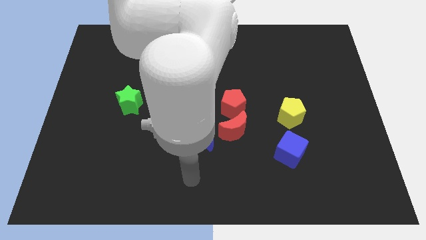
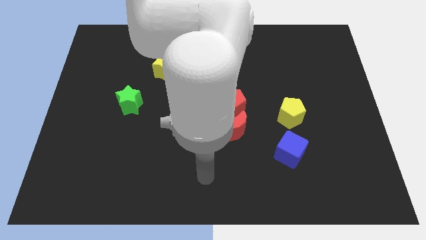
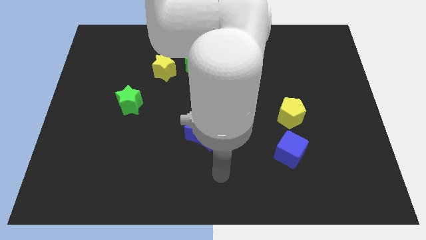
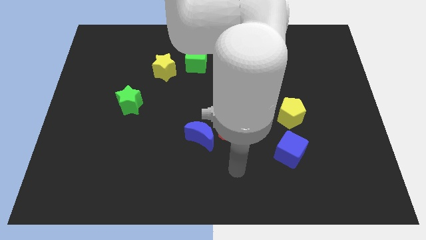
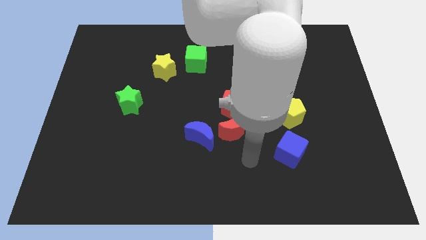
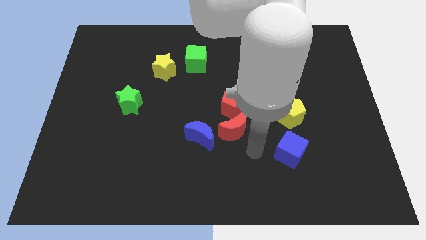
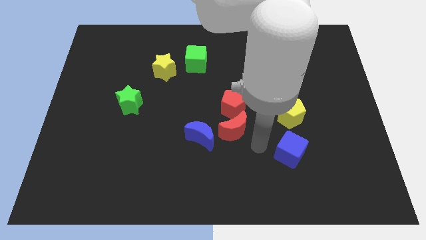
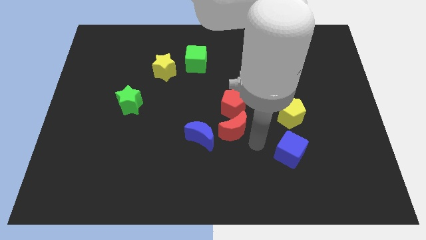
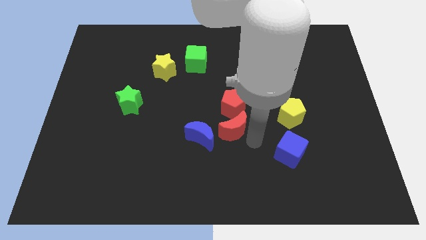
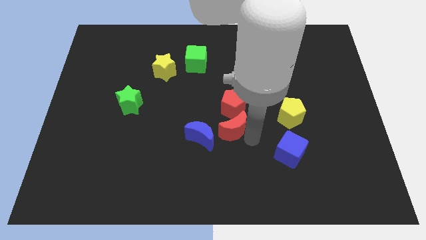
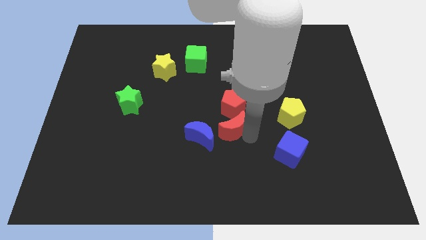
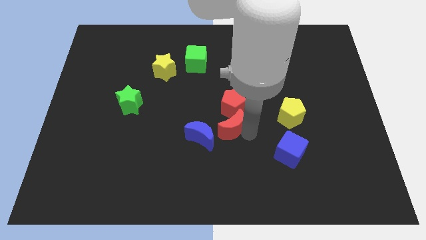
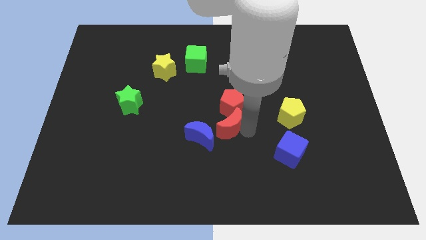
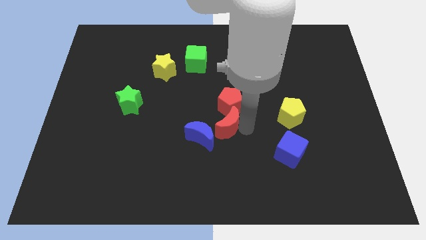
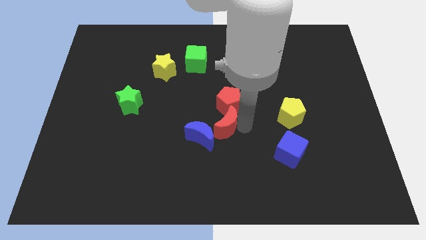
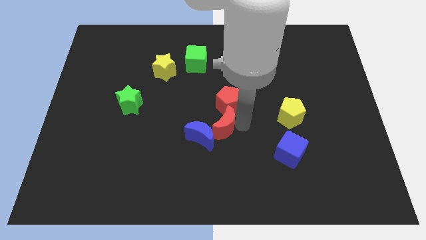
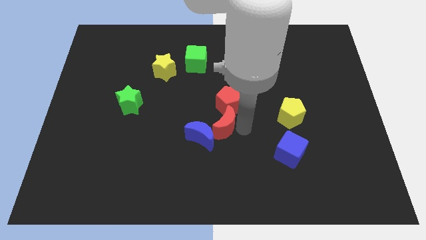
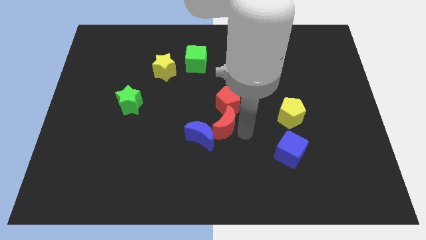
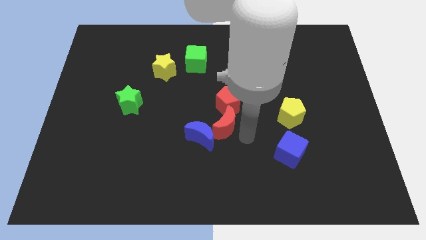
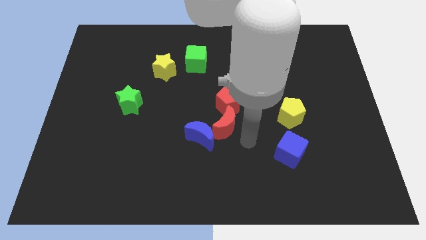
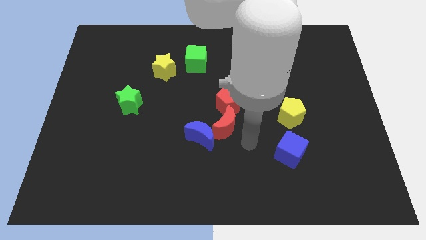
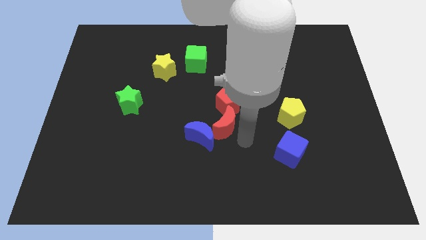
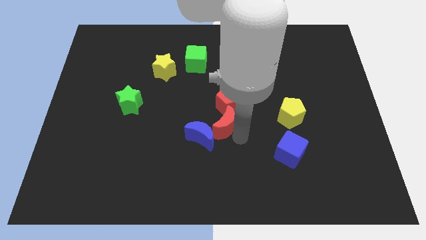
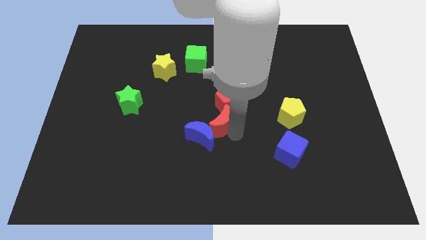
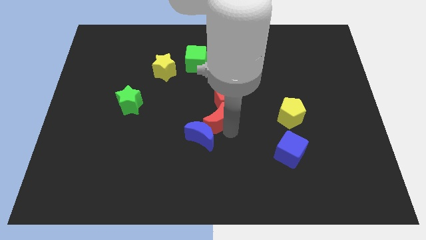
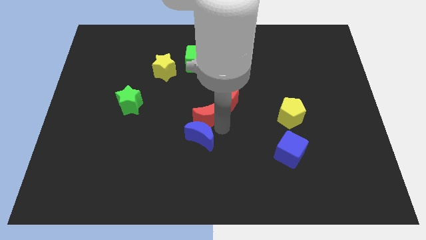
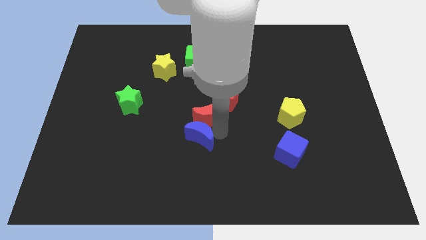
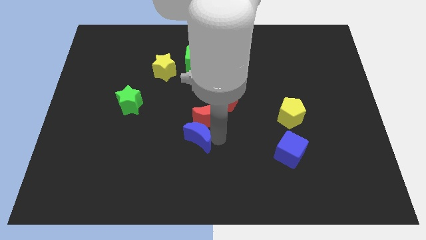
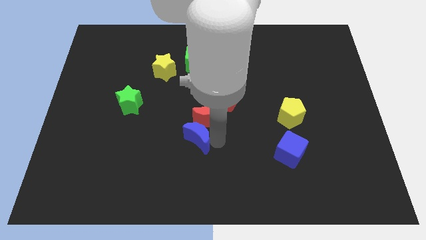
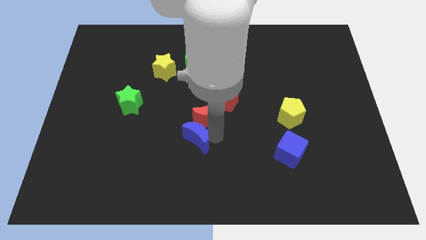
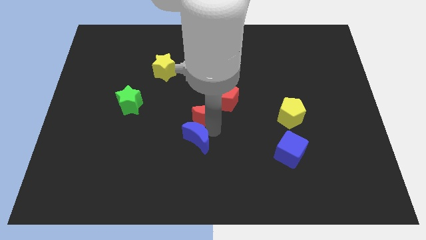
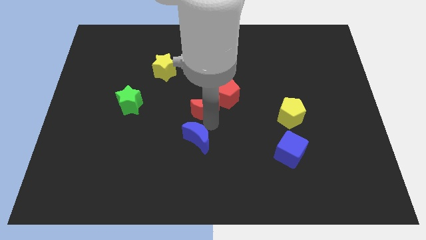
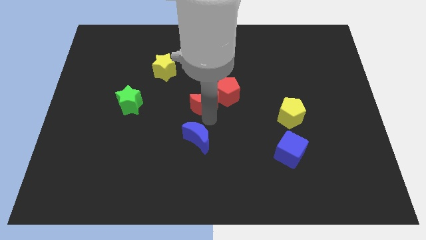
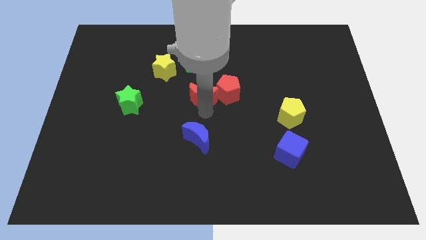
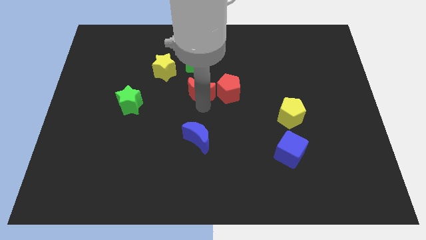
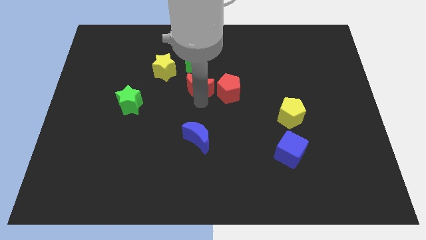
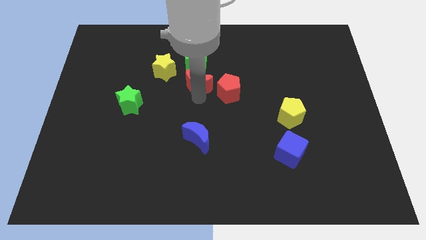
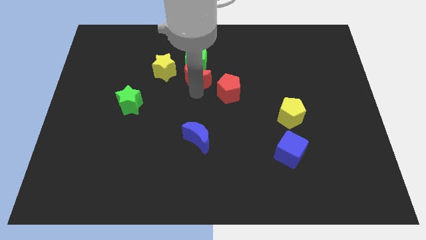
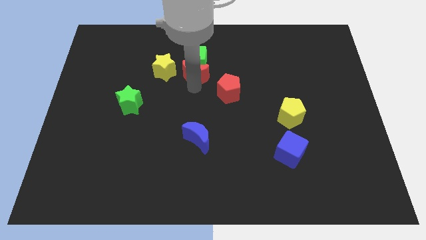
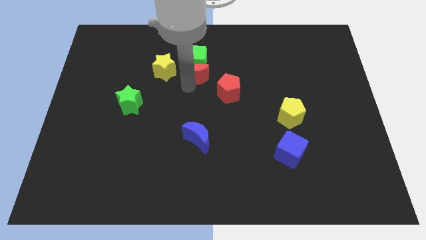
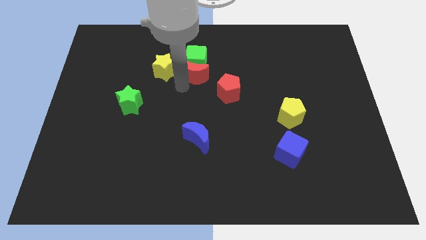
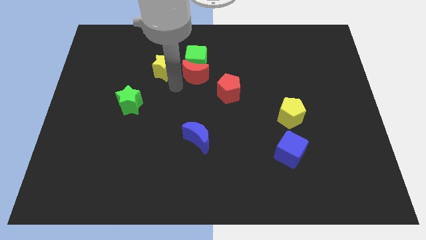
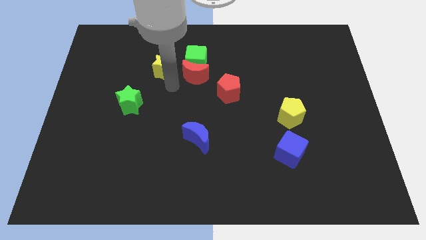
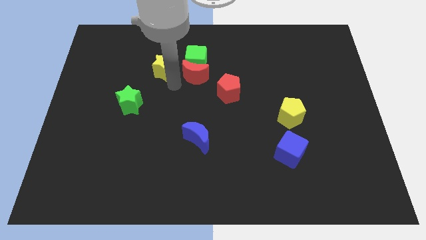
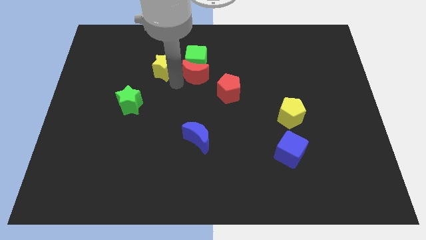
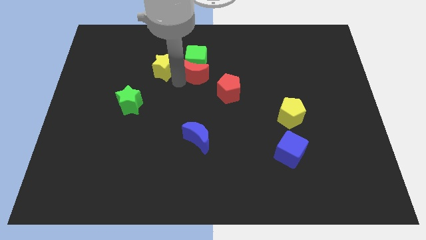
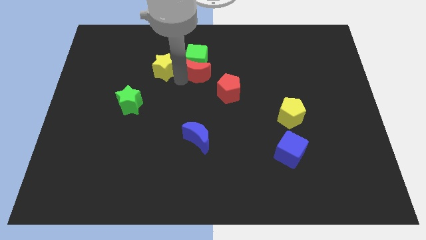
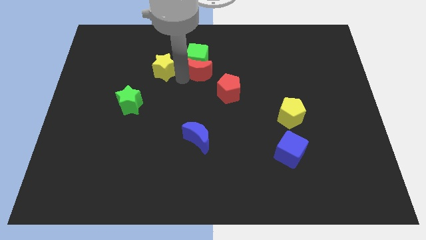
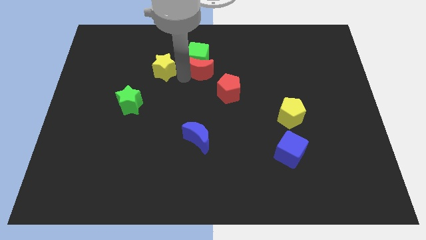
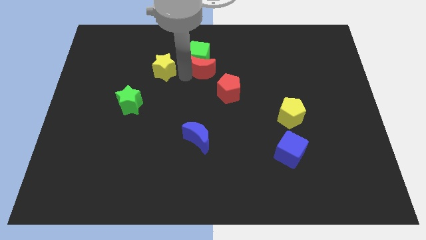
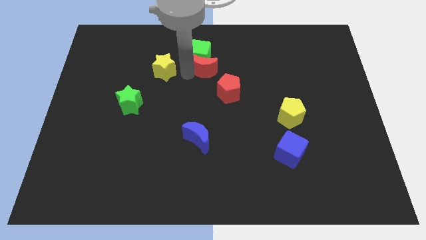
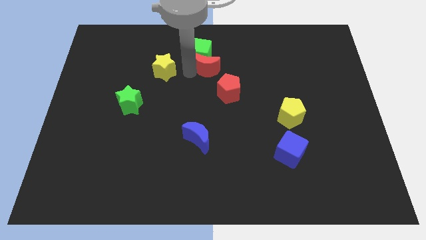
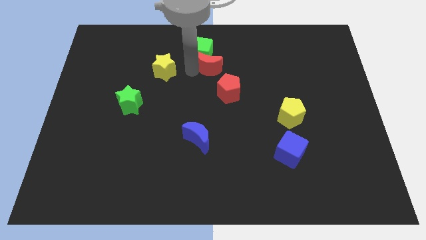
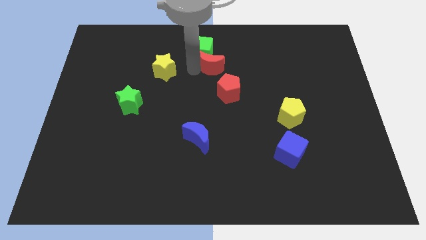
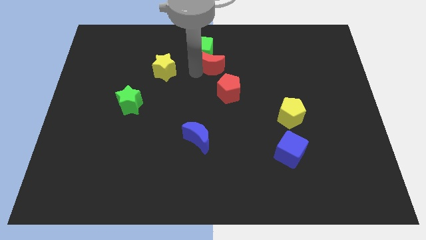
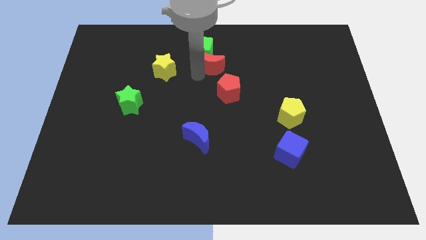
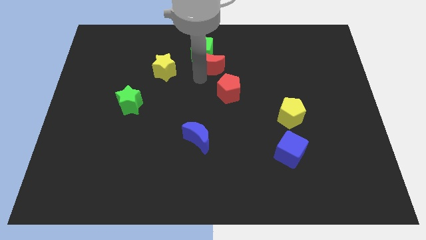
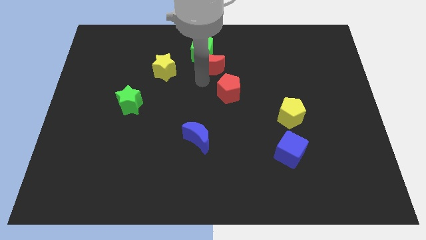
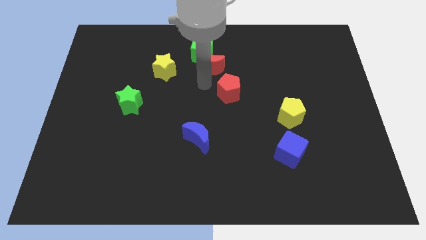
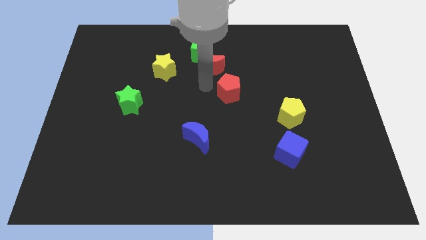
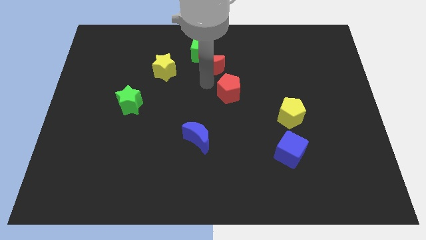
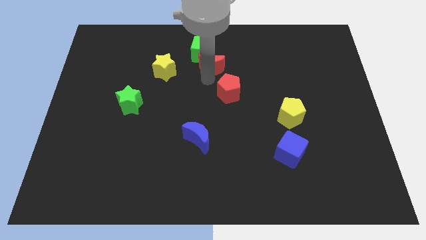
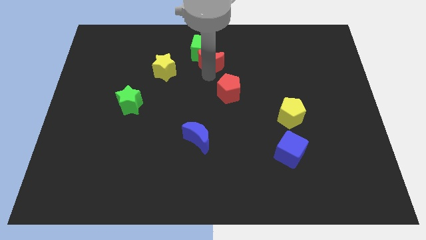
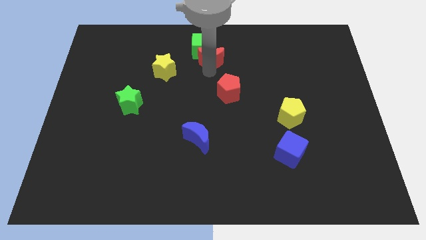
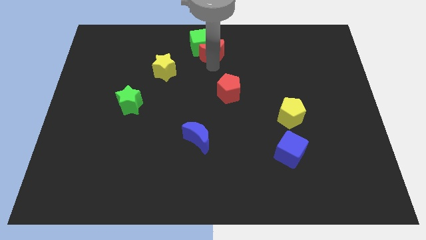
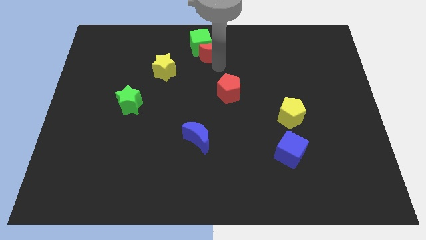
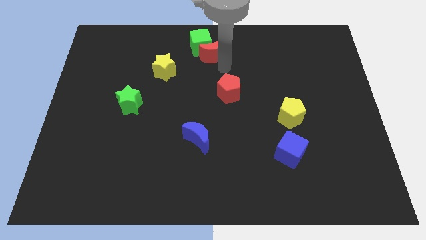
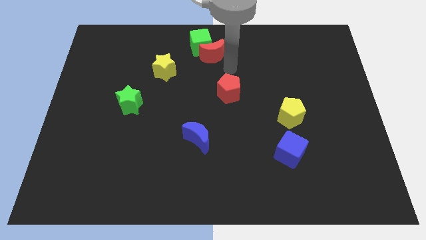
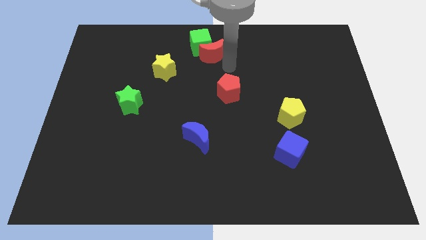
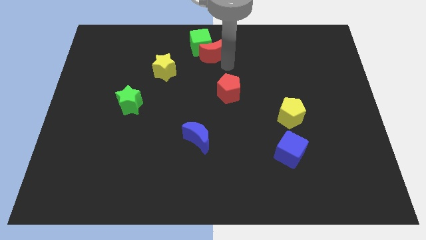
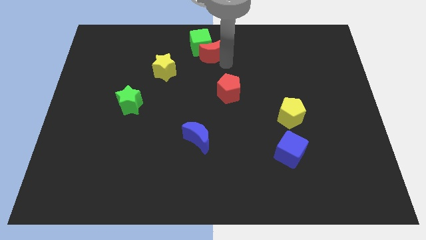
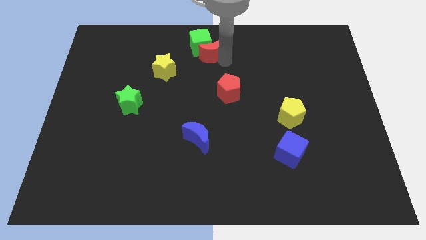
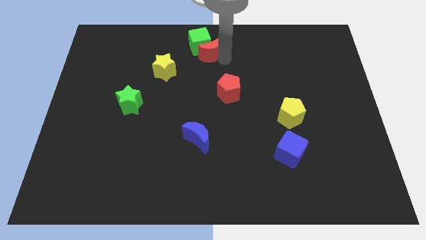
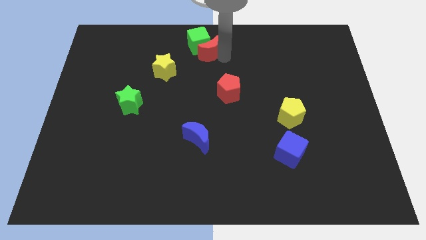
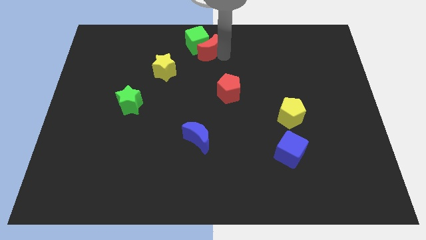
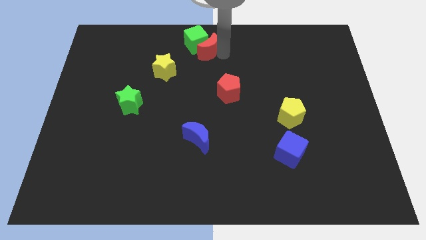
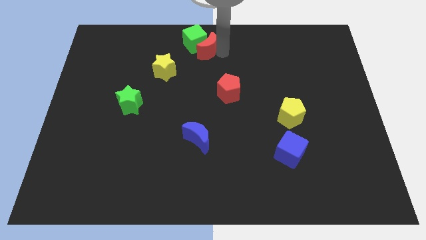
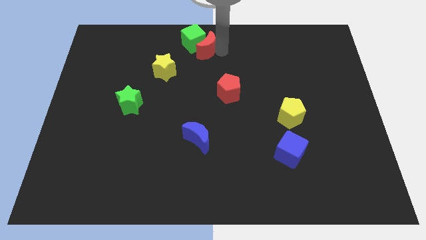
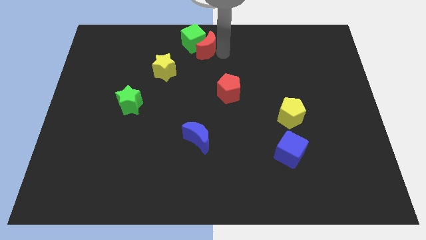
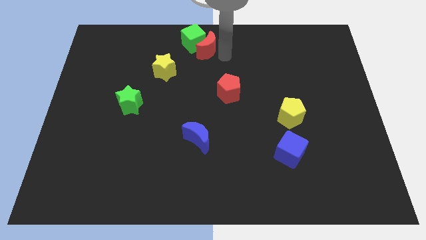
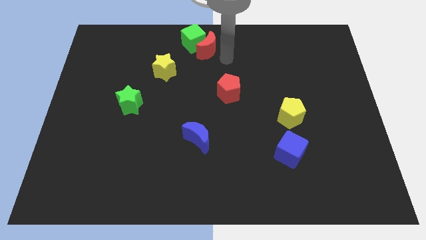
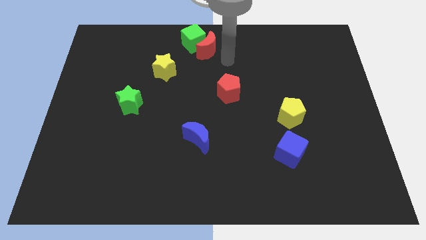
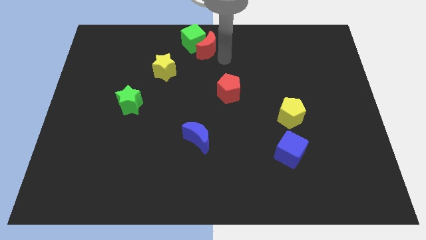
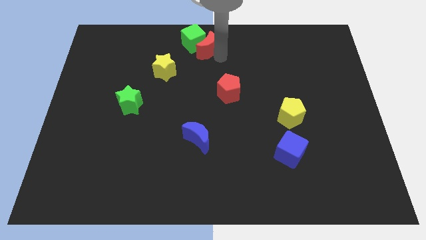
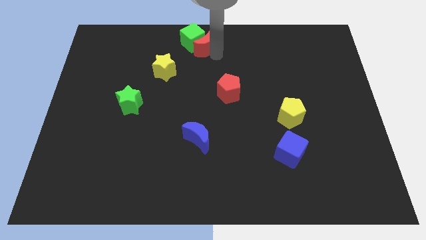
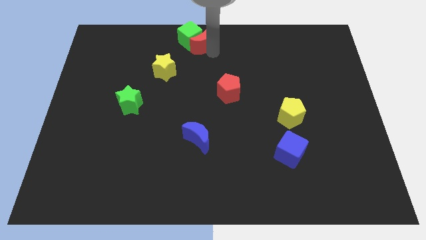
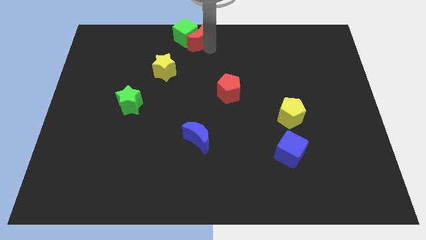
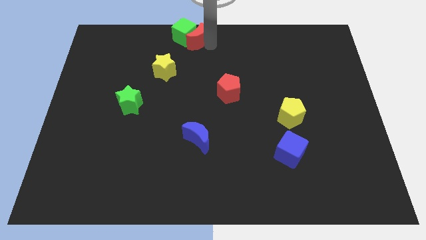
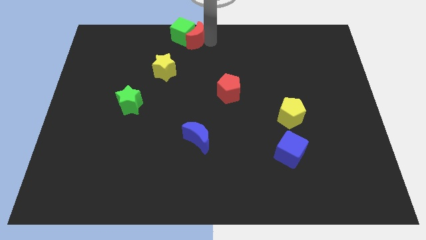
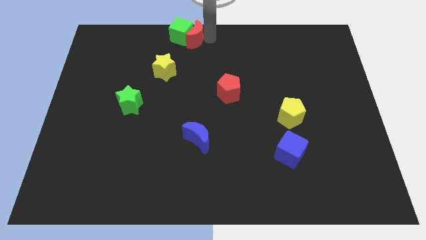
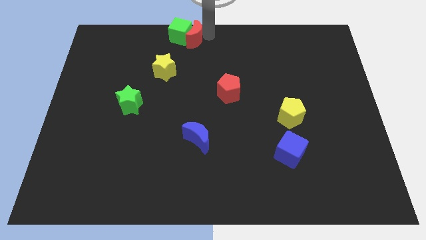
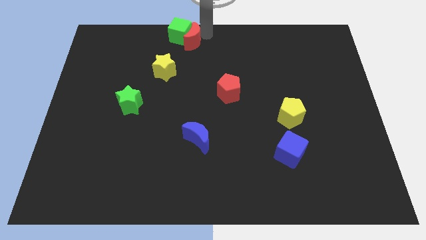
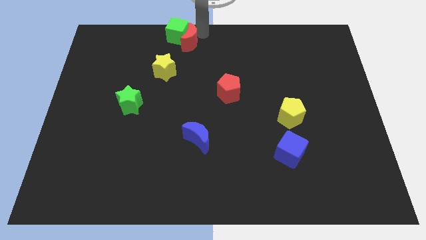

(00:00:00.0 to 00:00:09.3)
push the red moon to the top right side of the yellow star
